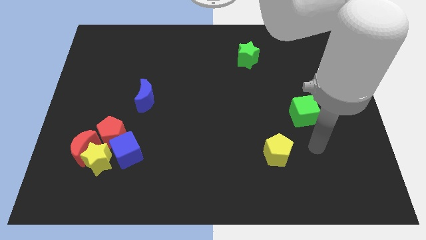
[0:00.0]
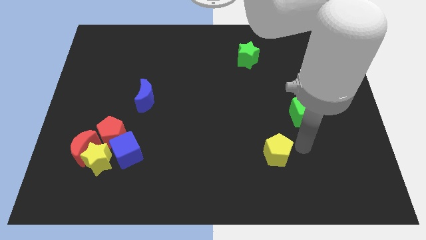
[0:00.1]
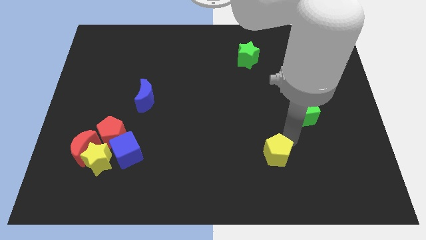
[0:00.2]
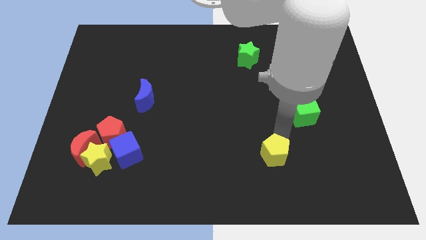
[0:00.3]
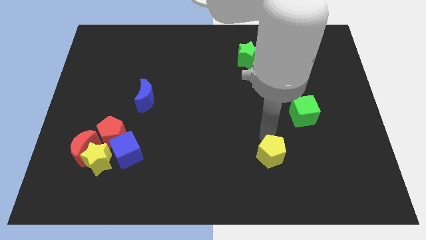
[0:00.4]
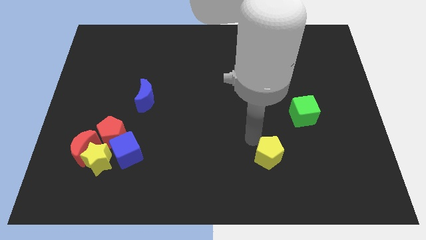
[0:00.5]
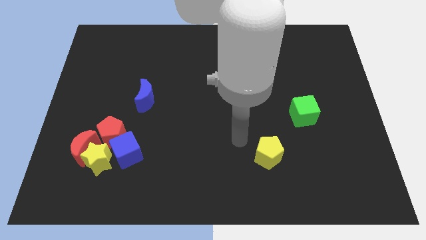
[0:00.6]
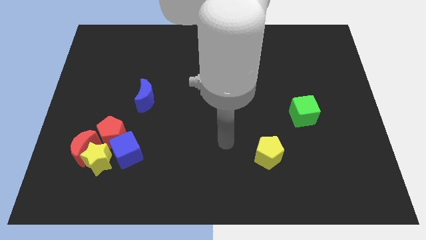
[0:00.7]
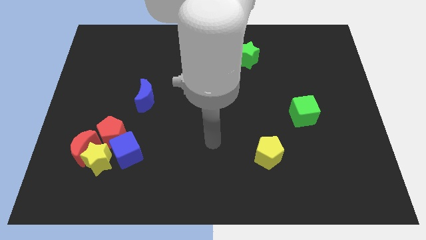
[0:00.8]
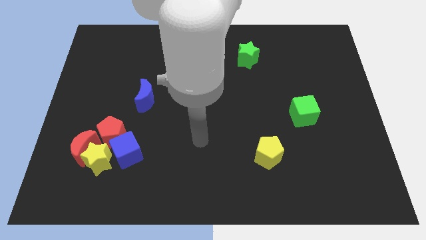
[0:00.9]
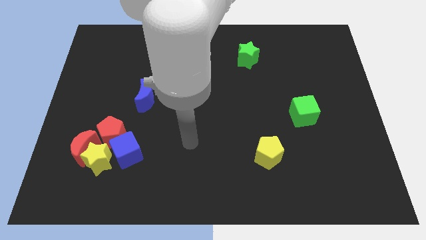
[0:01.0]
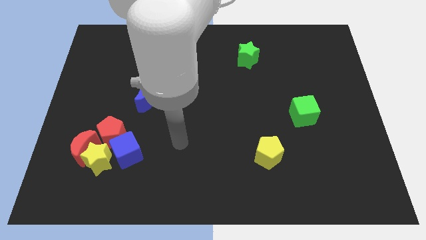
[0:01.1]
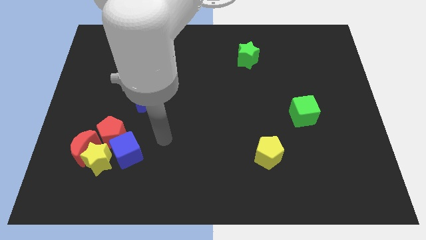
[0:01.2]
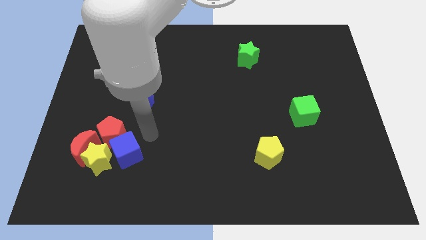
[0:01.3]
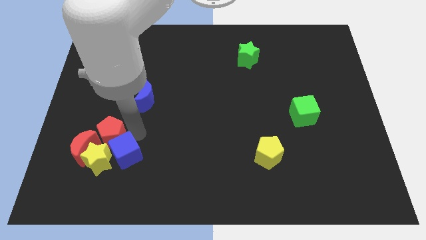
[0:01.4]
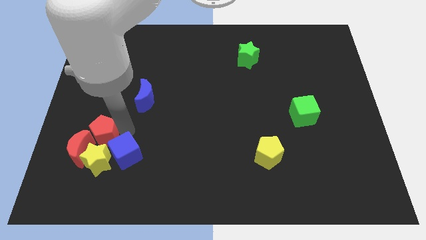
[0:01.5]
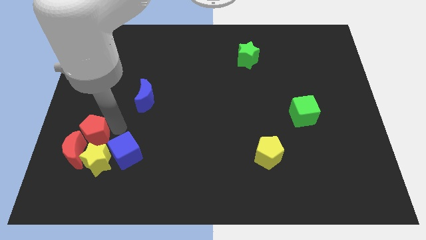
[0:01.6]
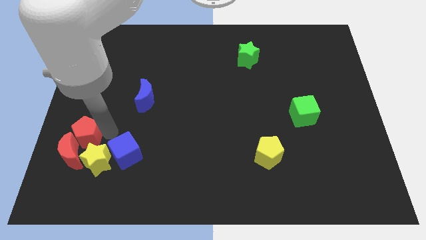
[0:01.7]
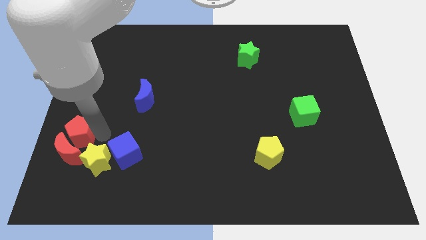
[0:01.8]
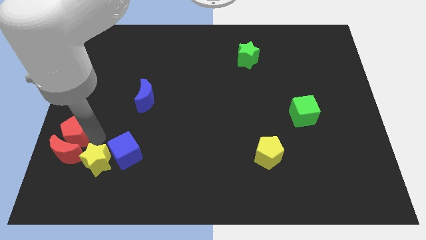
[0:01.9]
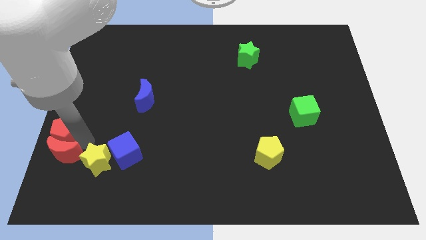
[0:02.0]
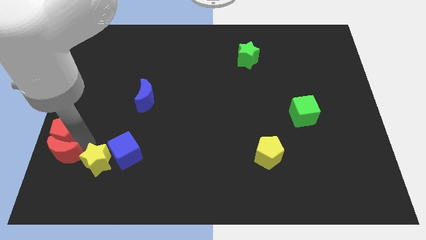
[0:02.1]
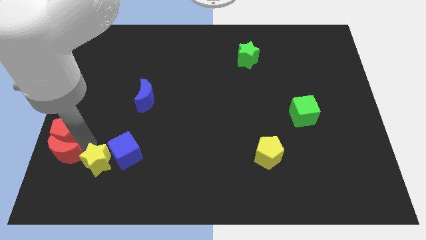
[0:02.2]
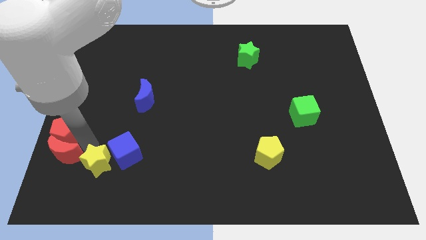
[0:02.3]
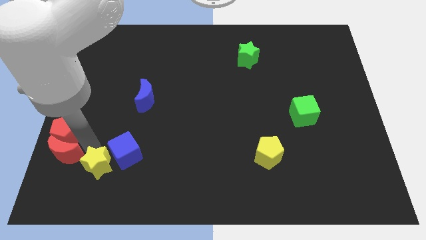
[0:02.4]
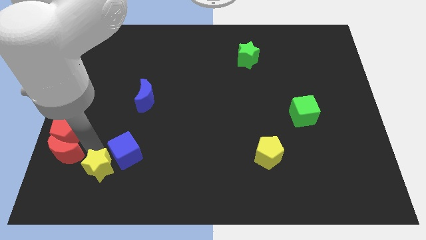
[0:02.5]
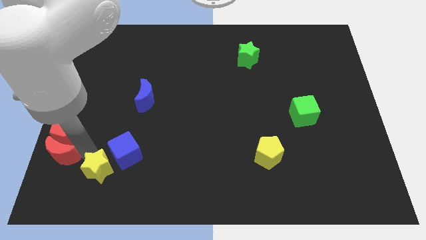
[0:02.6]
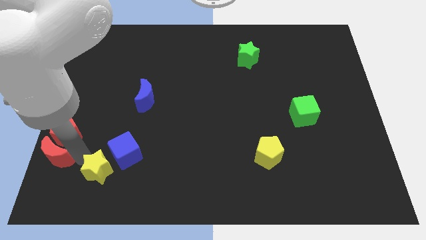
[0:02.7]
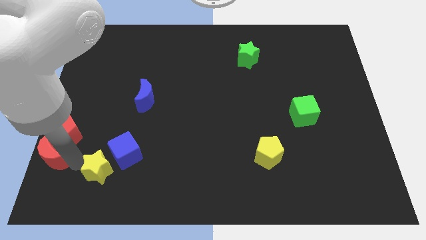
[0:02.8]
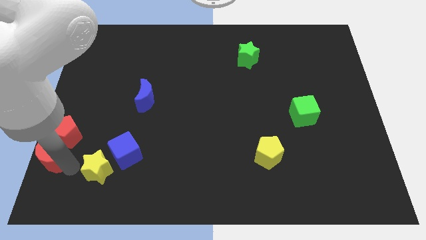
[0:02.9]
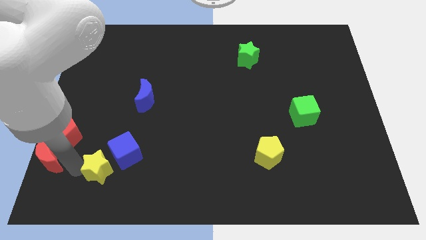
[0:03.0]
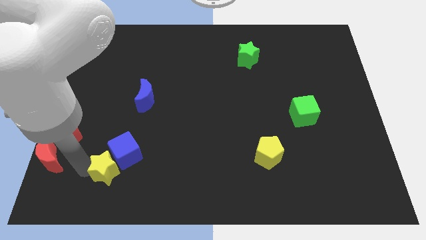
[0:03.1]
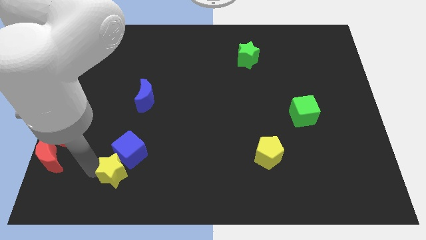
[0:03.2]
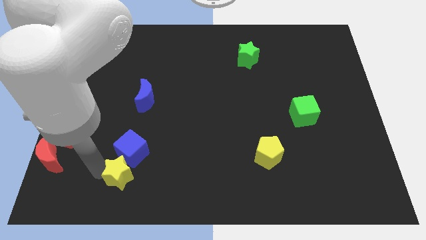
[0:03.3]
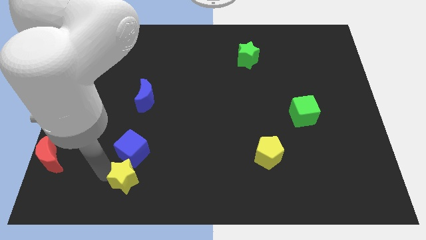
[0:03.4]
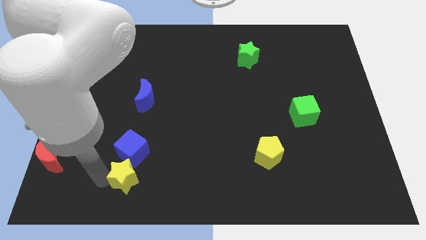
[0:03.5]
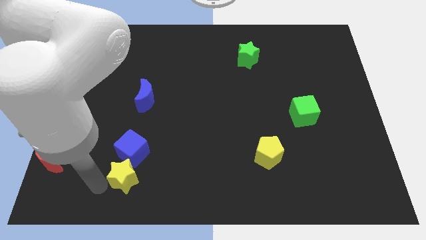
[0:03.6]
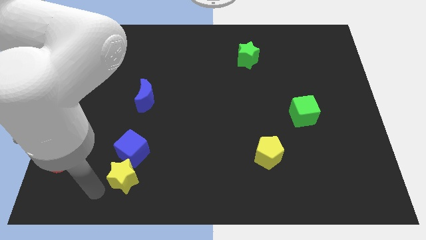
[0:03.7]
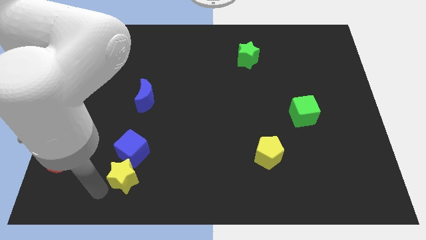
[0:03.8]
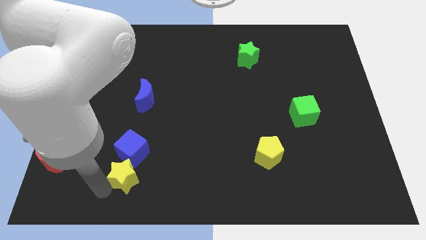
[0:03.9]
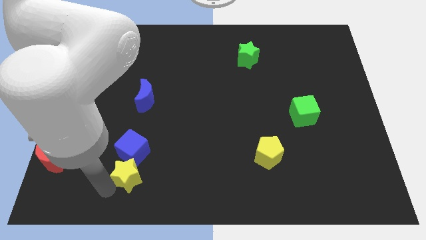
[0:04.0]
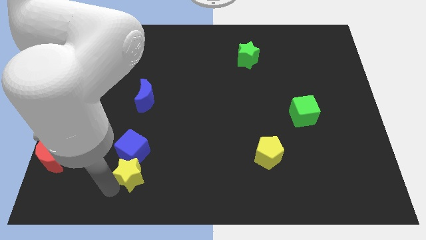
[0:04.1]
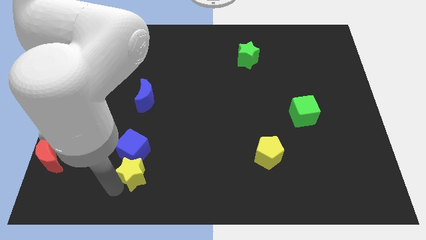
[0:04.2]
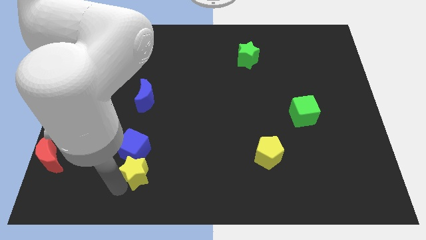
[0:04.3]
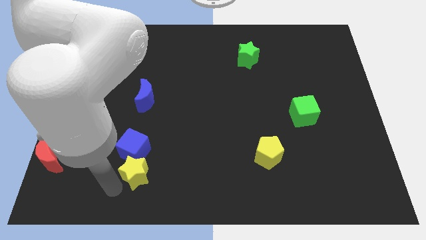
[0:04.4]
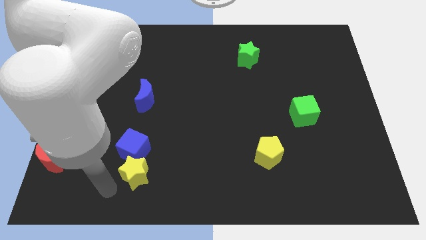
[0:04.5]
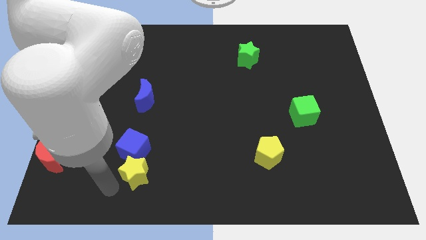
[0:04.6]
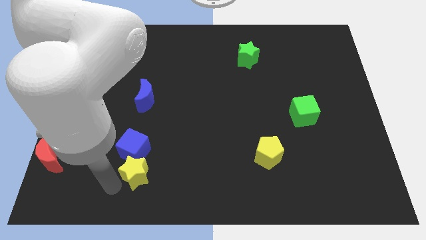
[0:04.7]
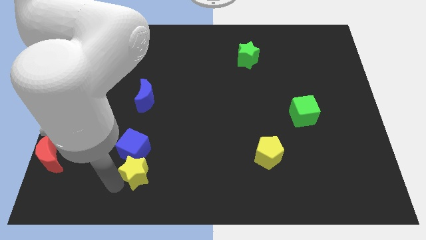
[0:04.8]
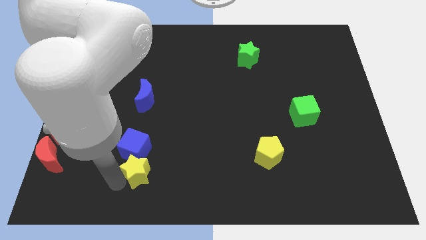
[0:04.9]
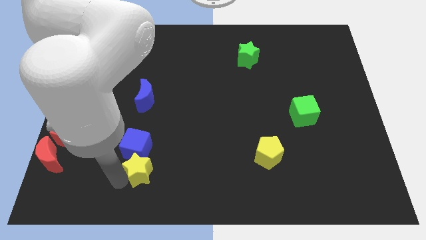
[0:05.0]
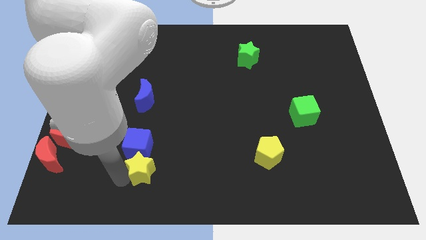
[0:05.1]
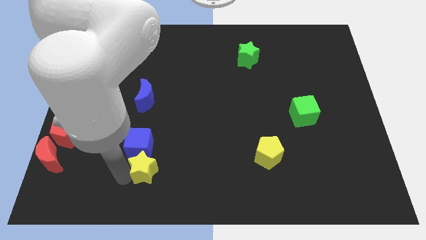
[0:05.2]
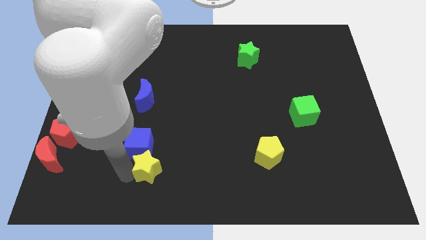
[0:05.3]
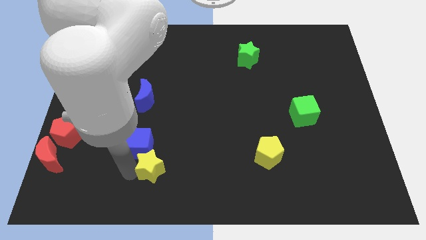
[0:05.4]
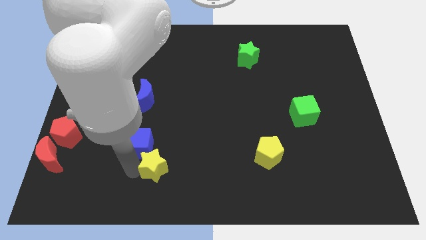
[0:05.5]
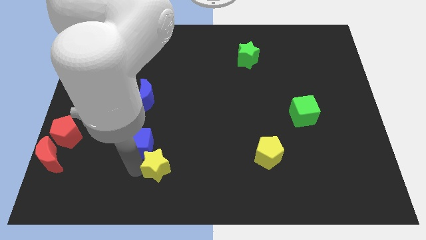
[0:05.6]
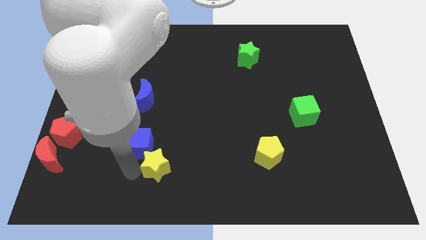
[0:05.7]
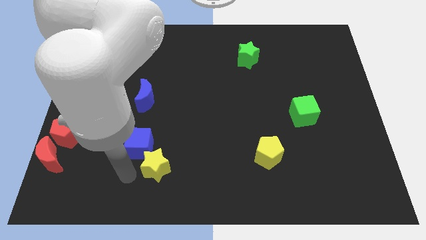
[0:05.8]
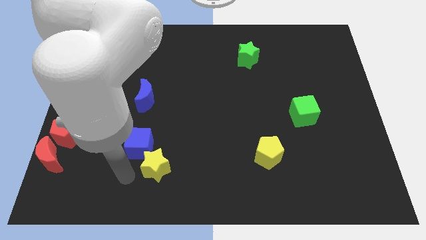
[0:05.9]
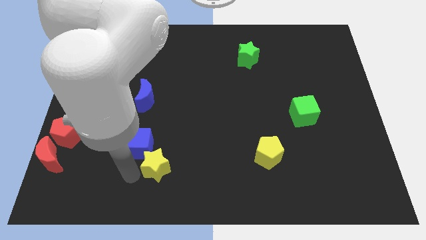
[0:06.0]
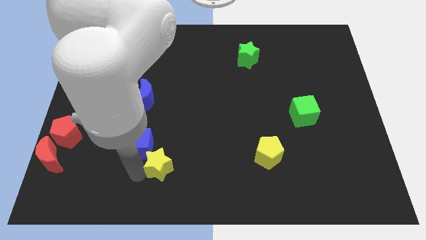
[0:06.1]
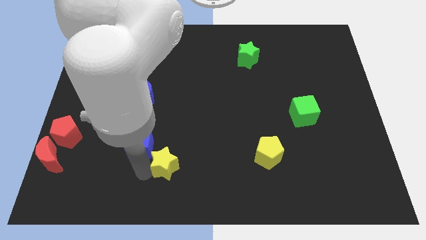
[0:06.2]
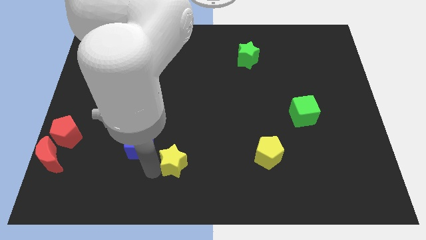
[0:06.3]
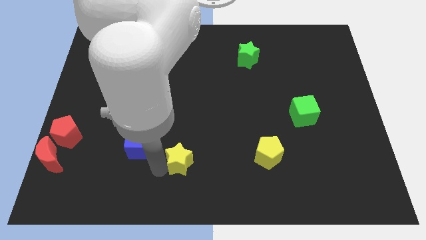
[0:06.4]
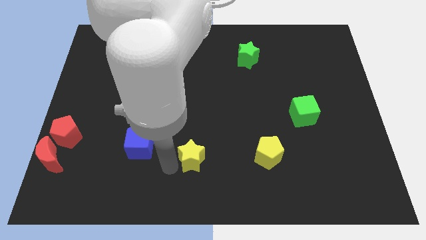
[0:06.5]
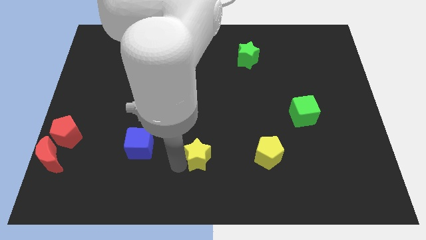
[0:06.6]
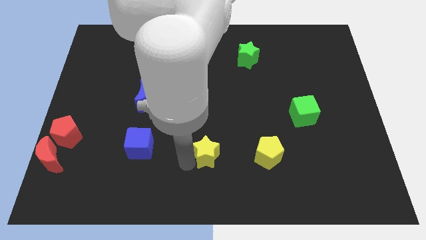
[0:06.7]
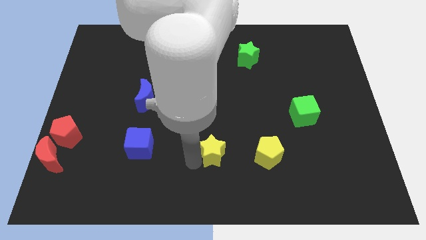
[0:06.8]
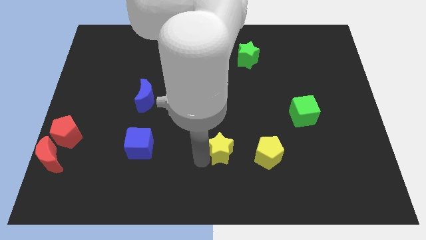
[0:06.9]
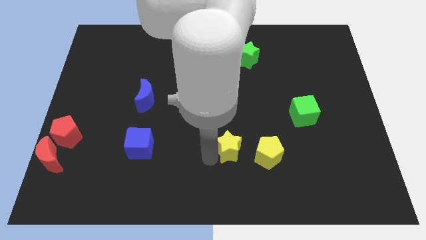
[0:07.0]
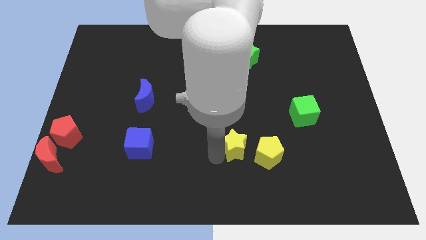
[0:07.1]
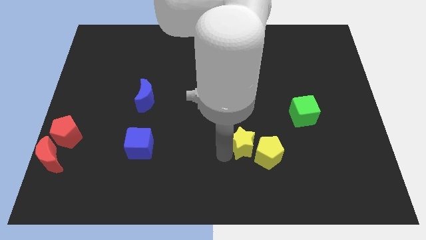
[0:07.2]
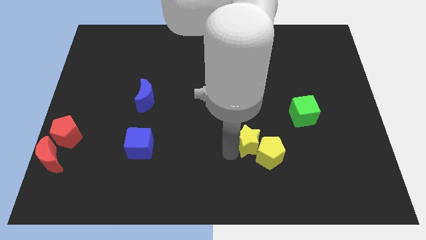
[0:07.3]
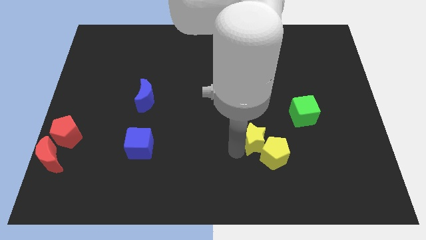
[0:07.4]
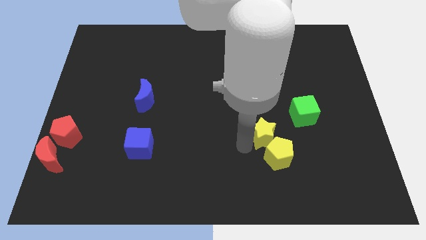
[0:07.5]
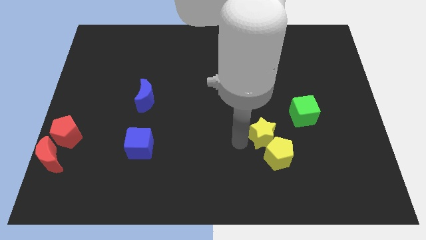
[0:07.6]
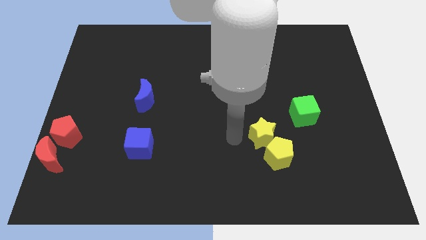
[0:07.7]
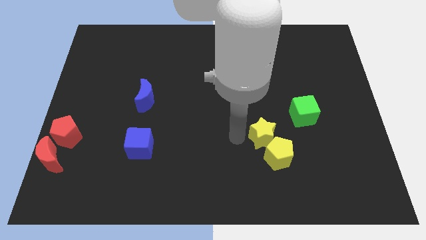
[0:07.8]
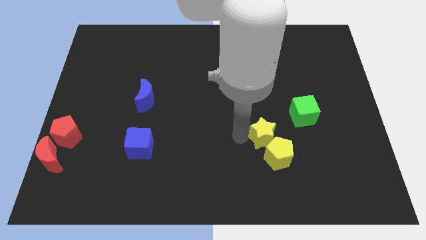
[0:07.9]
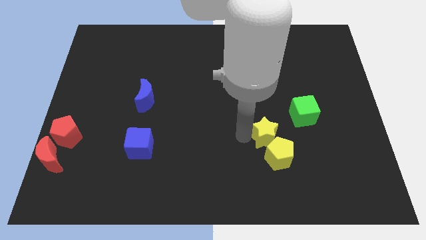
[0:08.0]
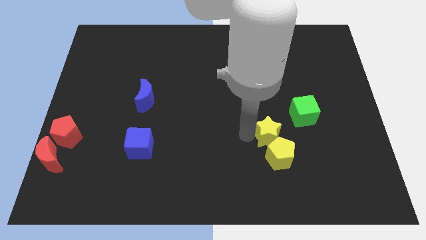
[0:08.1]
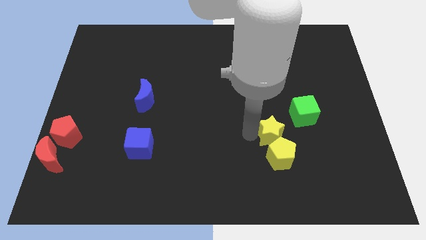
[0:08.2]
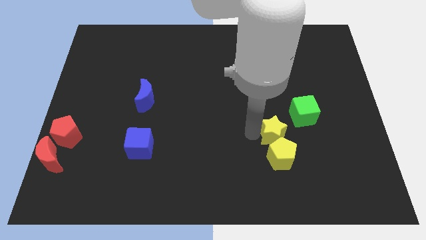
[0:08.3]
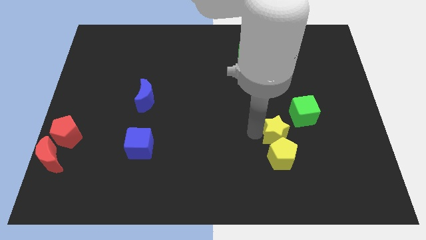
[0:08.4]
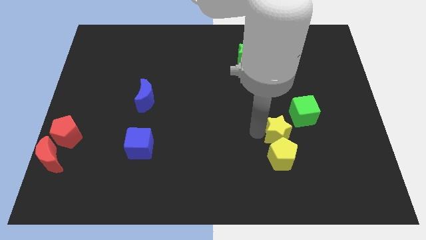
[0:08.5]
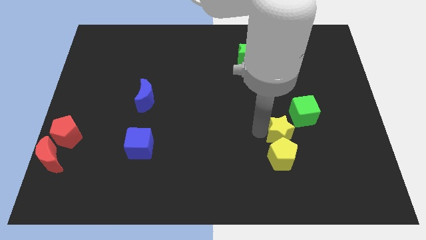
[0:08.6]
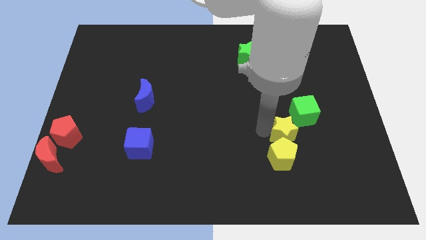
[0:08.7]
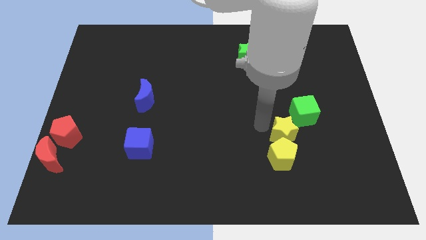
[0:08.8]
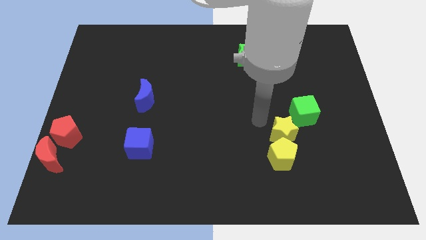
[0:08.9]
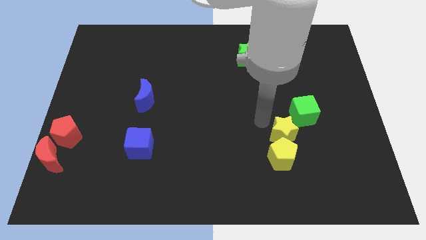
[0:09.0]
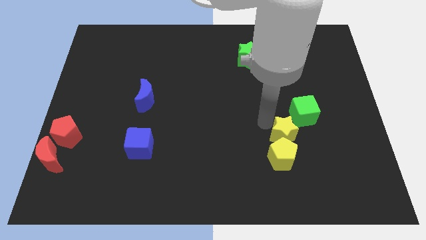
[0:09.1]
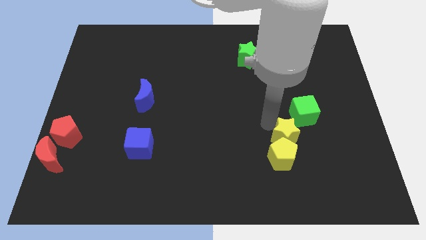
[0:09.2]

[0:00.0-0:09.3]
move the yellow star to the bottom side of the green cube
